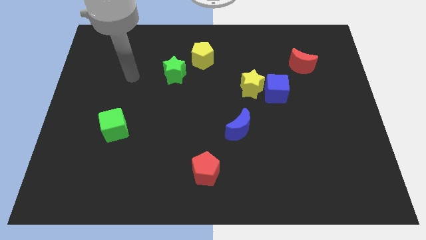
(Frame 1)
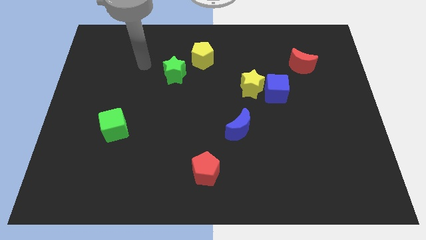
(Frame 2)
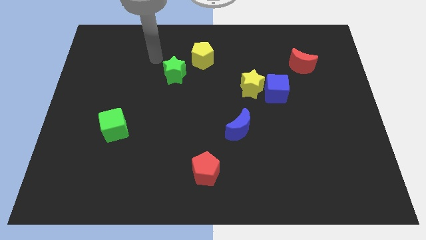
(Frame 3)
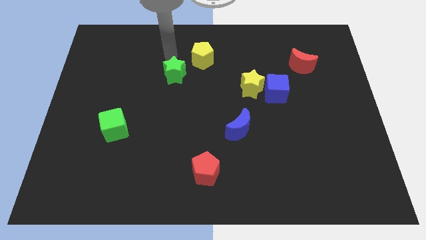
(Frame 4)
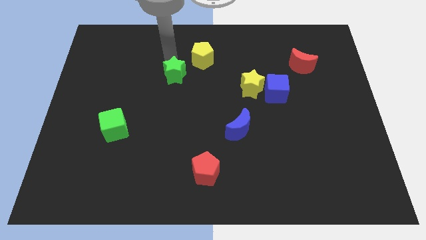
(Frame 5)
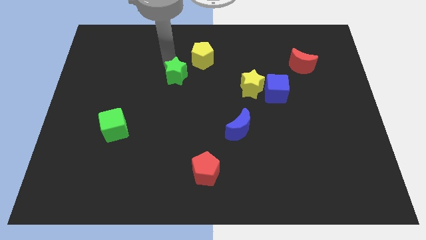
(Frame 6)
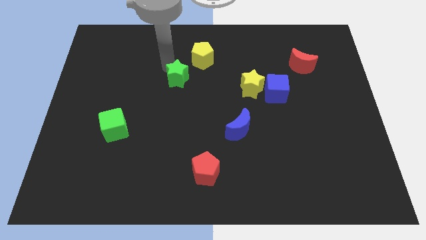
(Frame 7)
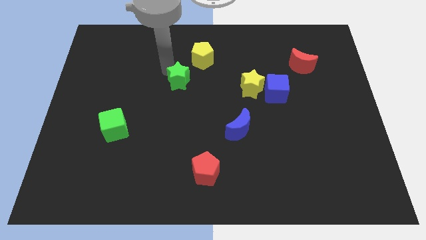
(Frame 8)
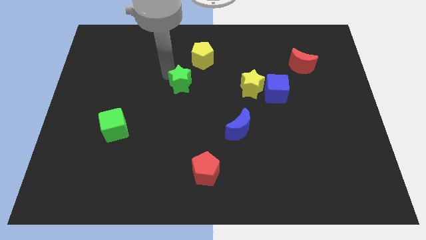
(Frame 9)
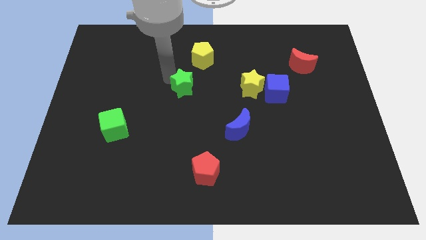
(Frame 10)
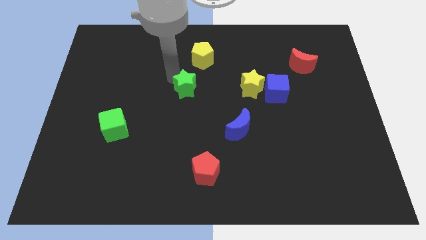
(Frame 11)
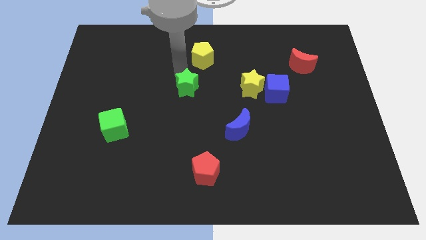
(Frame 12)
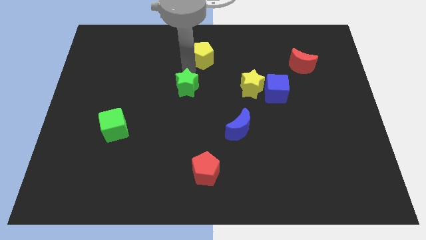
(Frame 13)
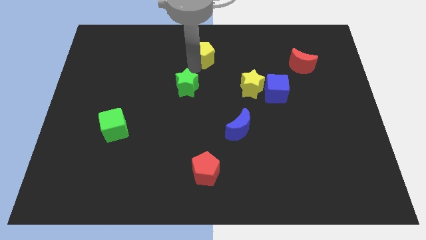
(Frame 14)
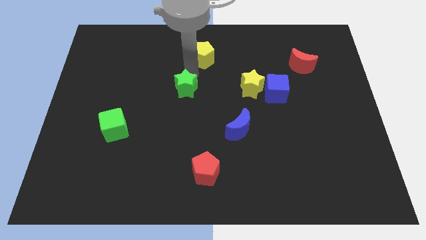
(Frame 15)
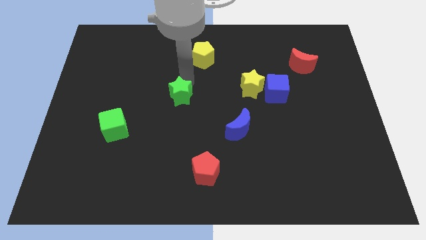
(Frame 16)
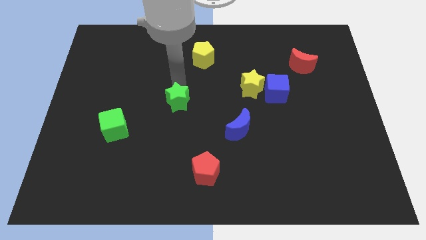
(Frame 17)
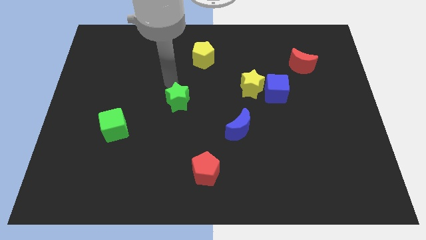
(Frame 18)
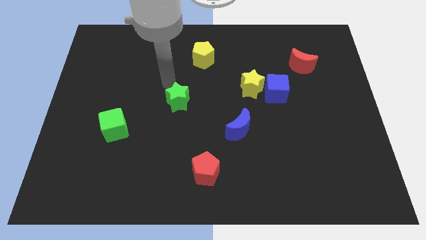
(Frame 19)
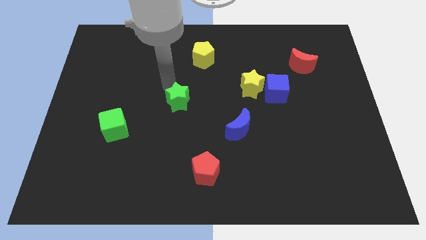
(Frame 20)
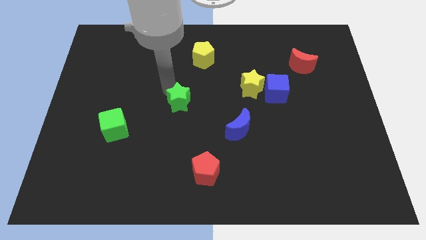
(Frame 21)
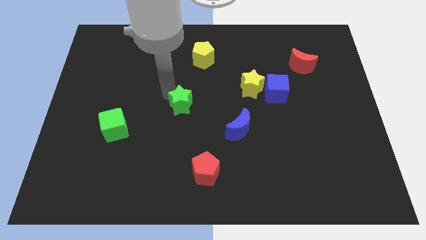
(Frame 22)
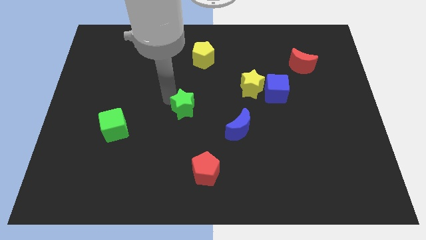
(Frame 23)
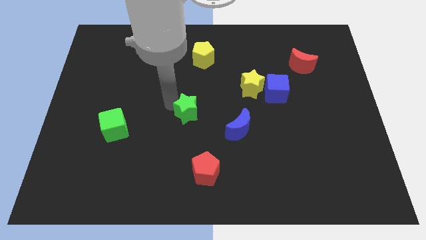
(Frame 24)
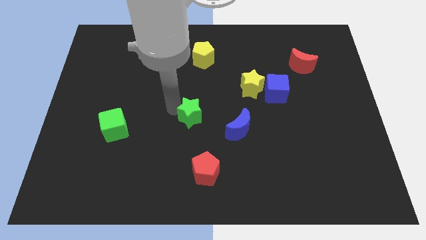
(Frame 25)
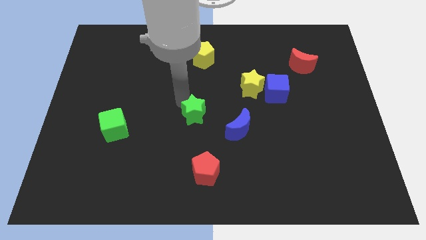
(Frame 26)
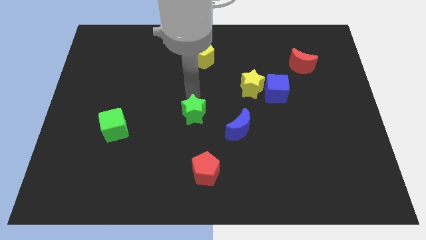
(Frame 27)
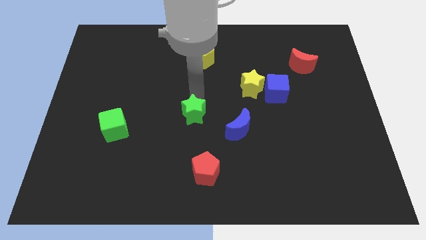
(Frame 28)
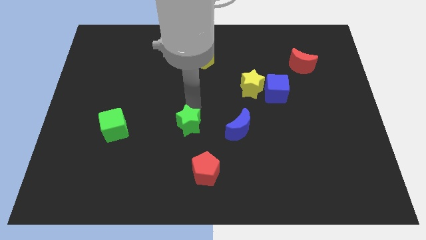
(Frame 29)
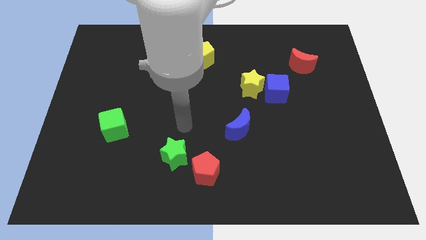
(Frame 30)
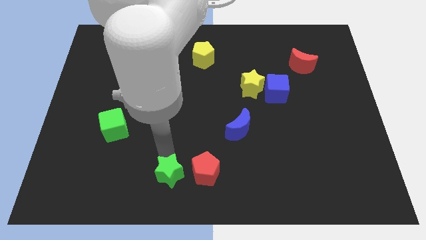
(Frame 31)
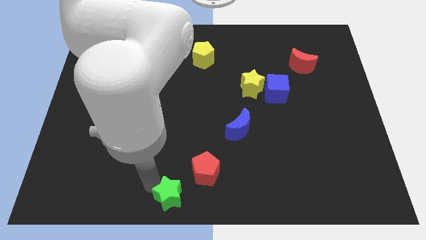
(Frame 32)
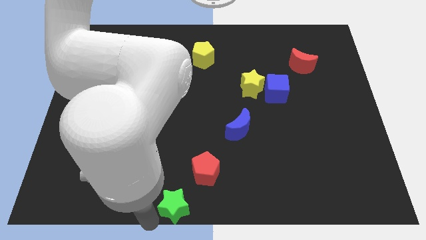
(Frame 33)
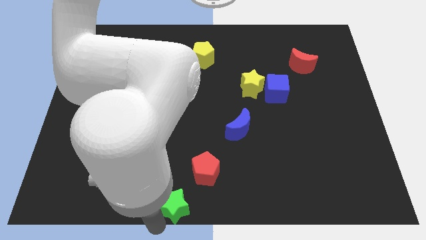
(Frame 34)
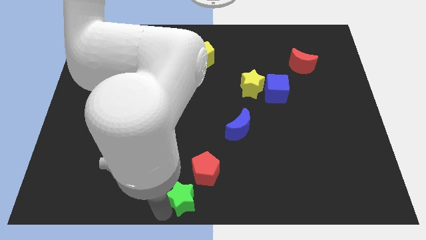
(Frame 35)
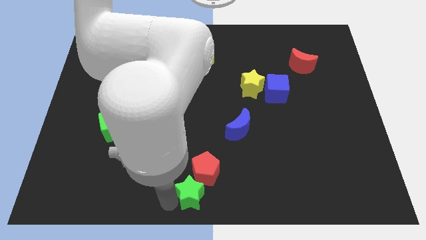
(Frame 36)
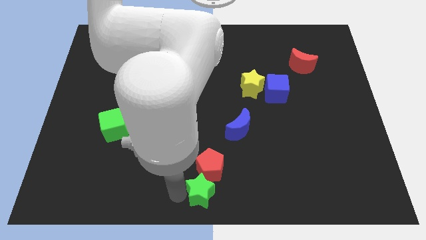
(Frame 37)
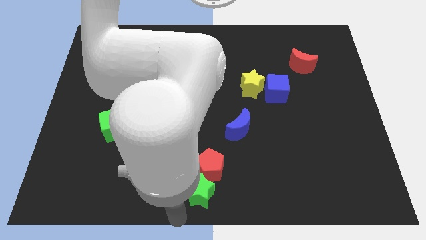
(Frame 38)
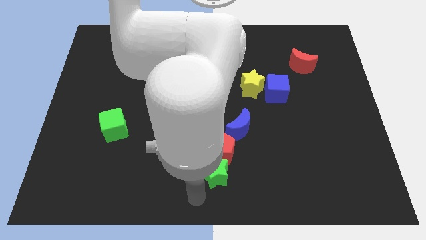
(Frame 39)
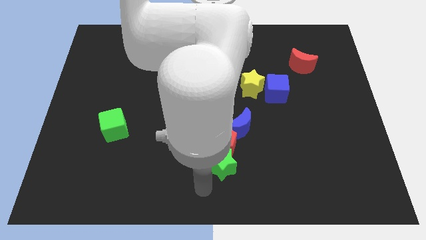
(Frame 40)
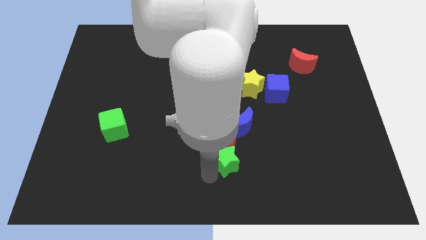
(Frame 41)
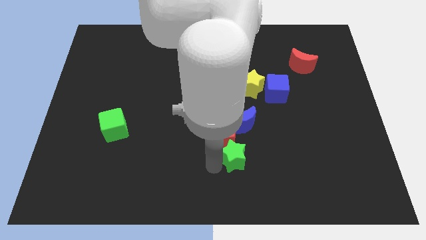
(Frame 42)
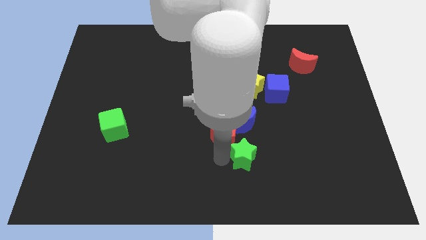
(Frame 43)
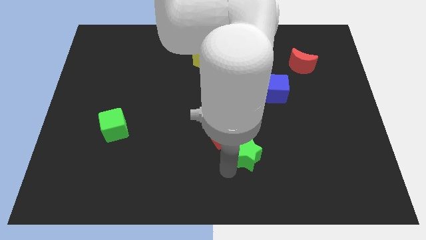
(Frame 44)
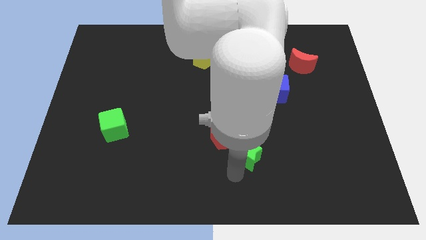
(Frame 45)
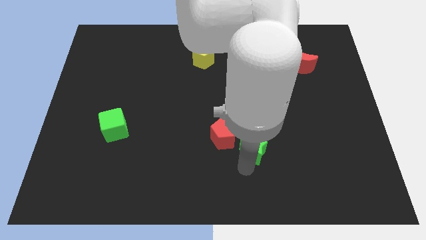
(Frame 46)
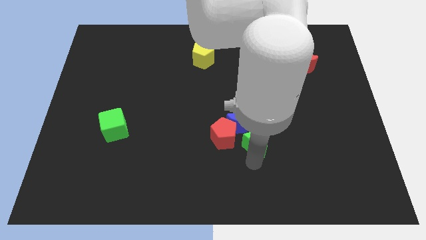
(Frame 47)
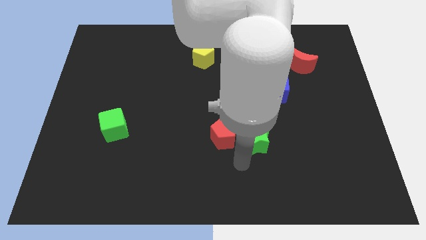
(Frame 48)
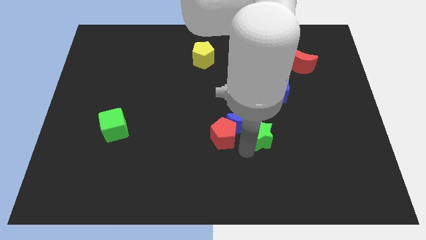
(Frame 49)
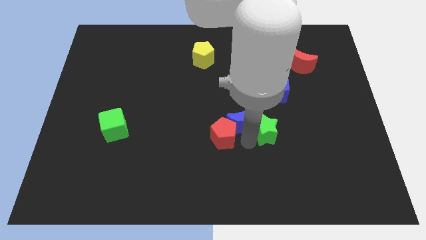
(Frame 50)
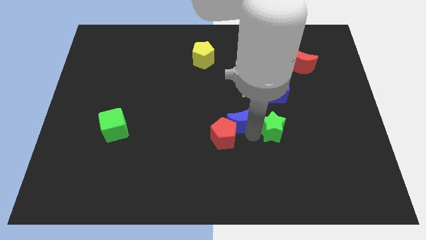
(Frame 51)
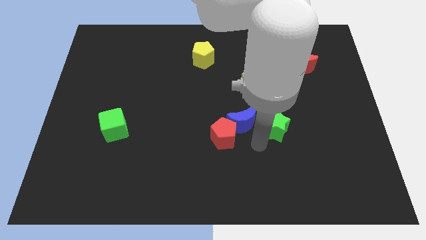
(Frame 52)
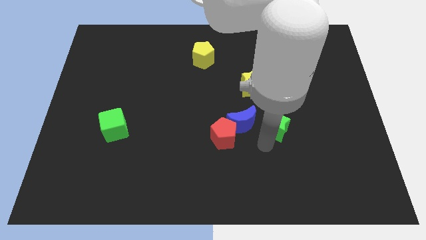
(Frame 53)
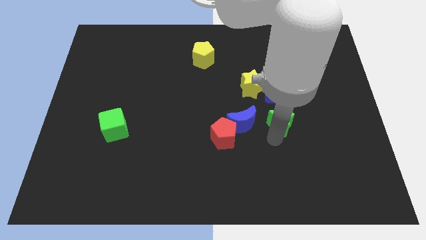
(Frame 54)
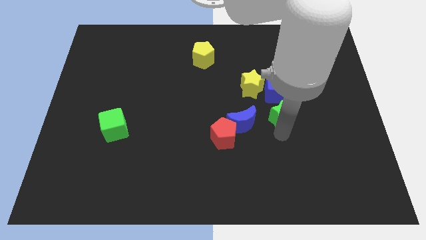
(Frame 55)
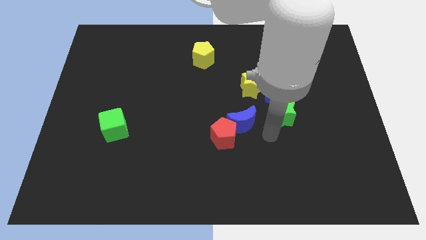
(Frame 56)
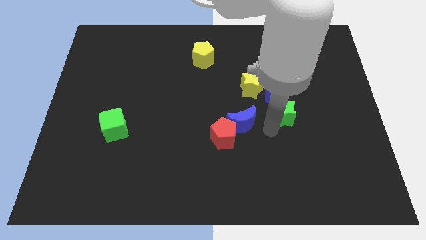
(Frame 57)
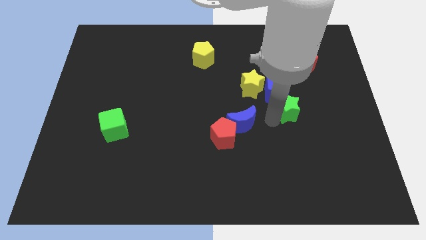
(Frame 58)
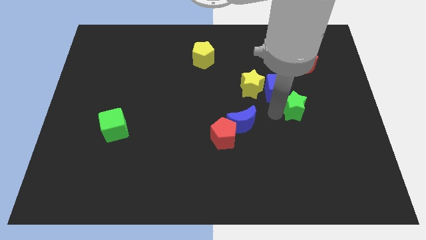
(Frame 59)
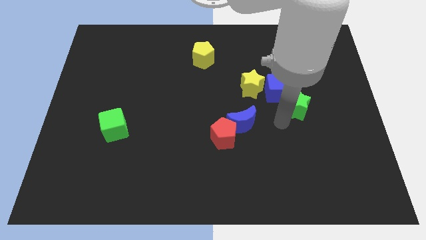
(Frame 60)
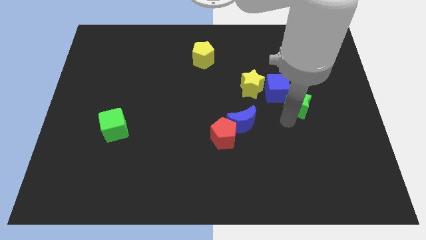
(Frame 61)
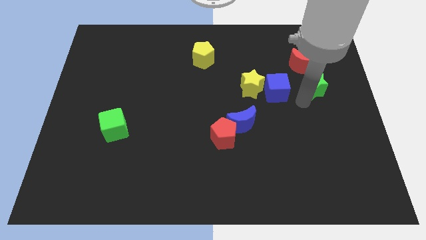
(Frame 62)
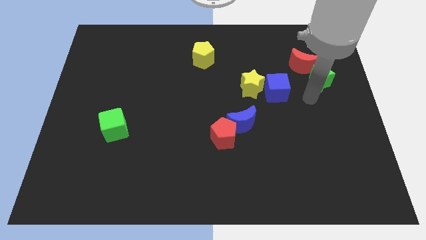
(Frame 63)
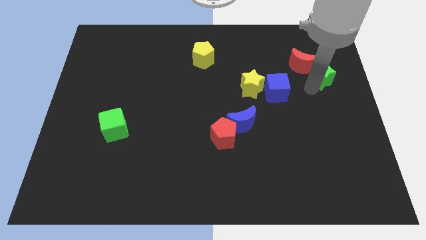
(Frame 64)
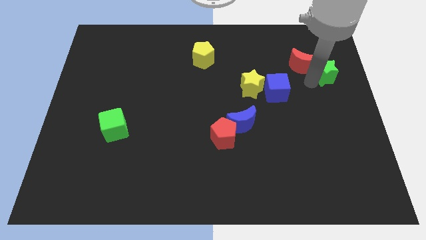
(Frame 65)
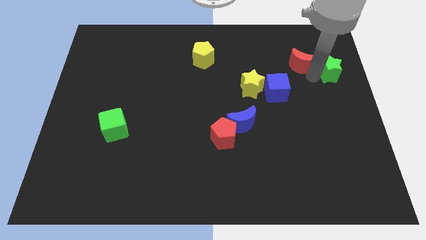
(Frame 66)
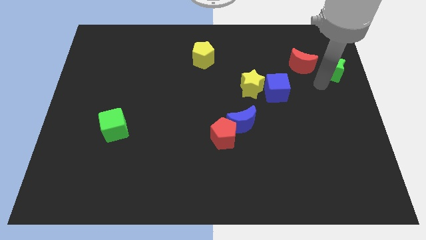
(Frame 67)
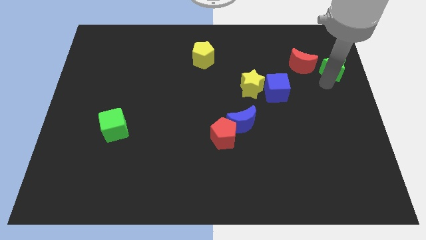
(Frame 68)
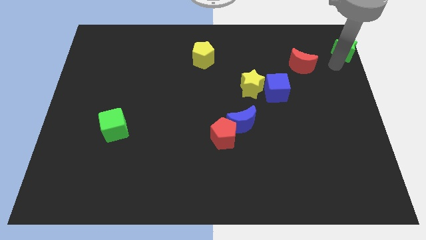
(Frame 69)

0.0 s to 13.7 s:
put the green star to the top right
